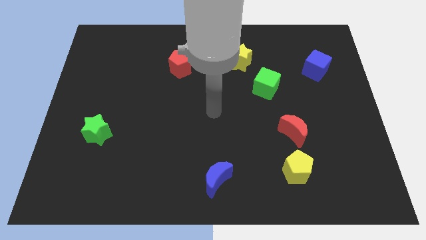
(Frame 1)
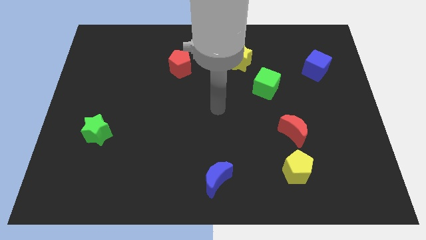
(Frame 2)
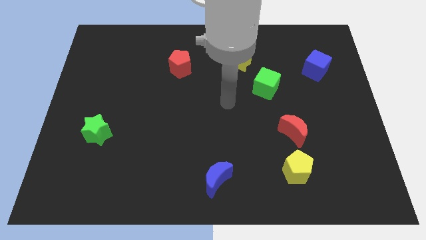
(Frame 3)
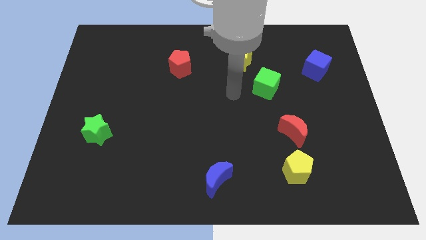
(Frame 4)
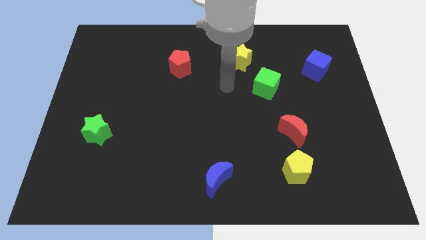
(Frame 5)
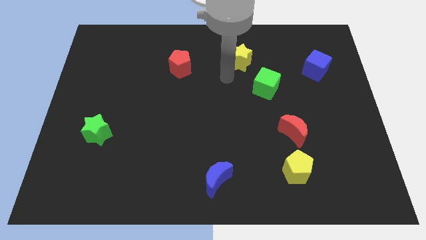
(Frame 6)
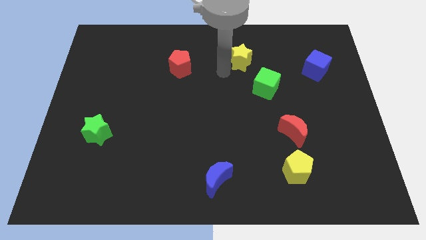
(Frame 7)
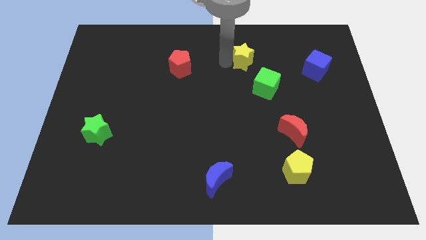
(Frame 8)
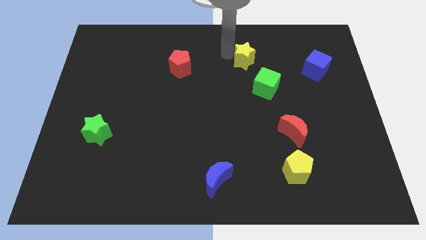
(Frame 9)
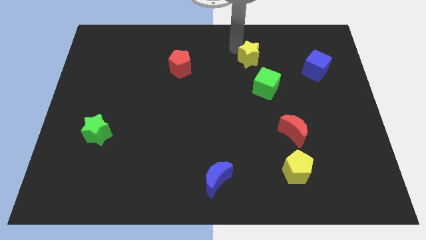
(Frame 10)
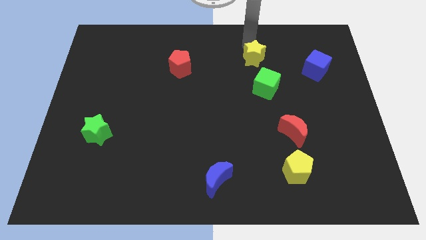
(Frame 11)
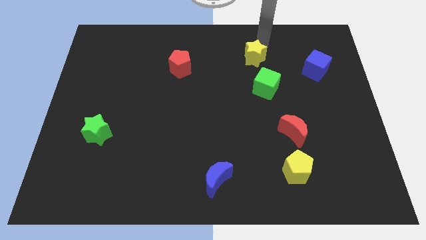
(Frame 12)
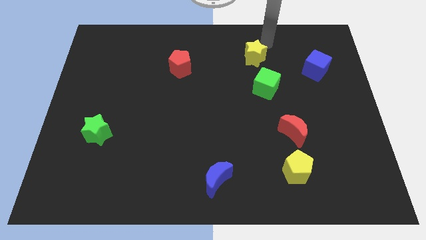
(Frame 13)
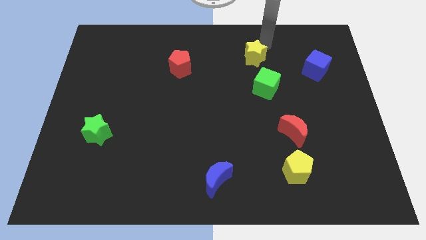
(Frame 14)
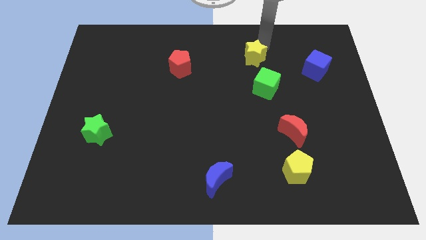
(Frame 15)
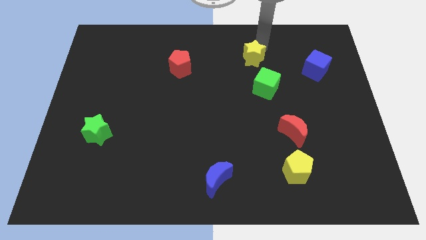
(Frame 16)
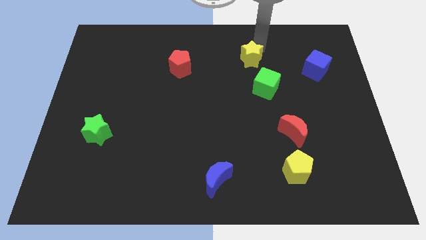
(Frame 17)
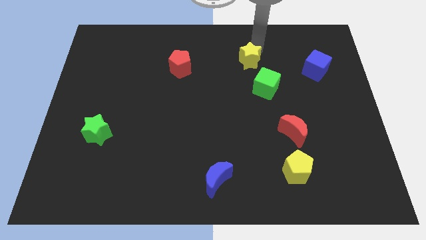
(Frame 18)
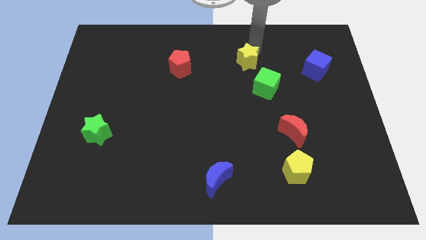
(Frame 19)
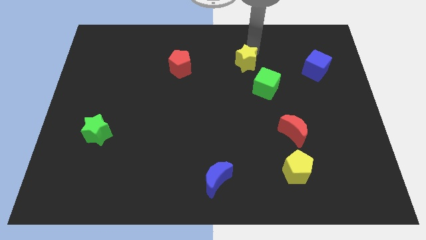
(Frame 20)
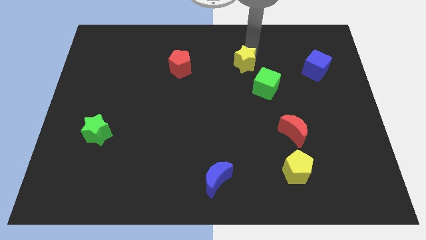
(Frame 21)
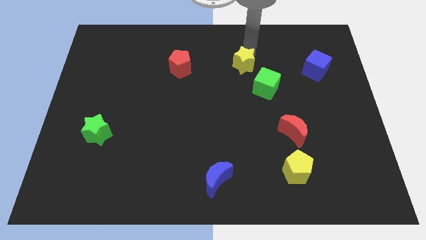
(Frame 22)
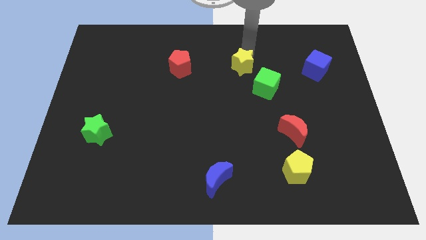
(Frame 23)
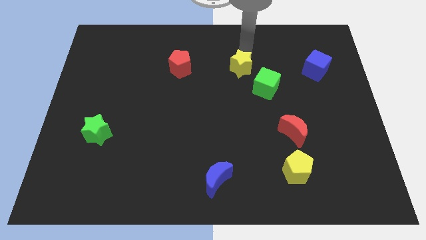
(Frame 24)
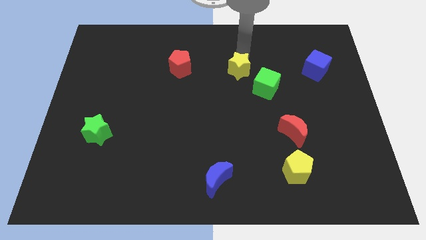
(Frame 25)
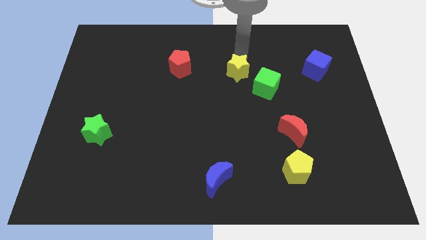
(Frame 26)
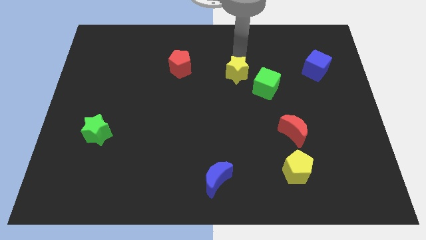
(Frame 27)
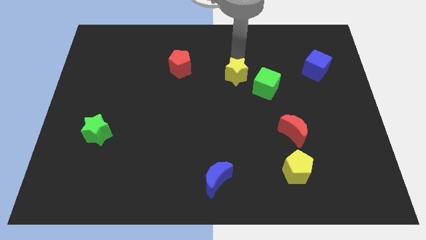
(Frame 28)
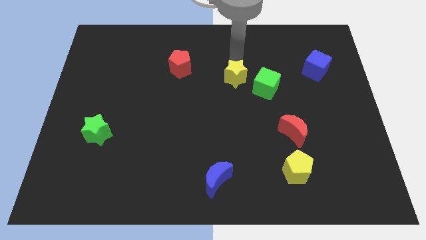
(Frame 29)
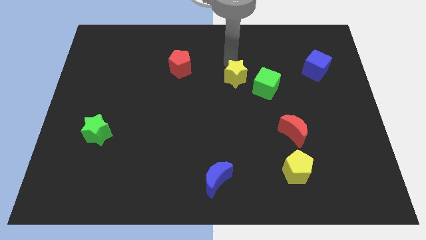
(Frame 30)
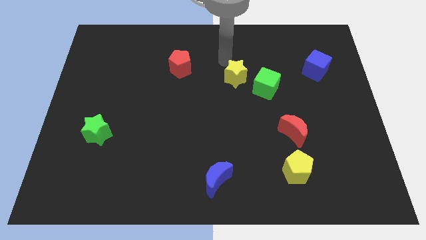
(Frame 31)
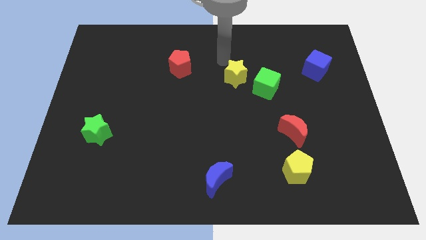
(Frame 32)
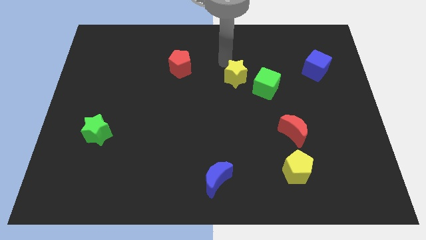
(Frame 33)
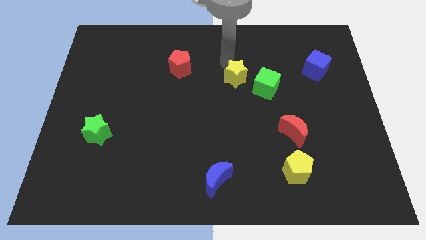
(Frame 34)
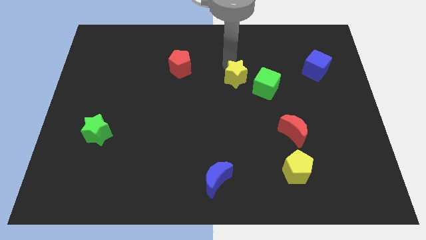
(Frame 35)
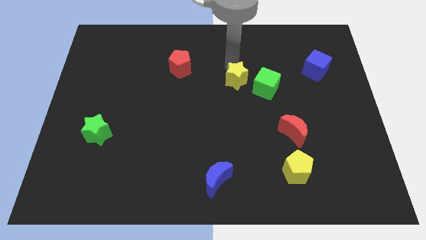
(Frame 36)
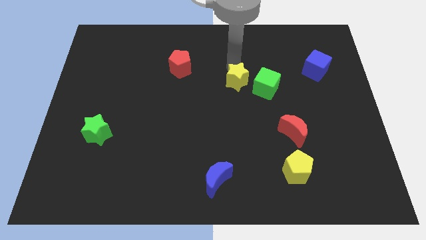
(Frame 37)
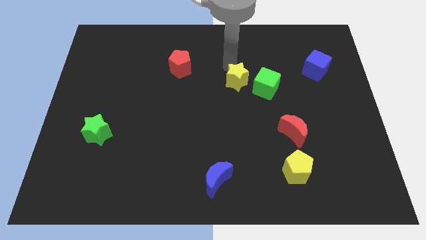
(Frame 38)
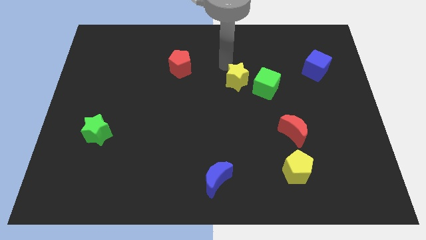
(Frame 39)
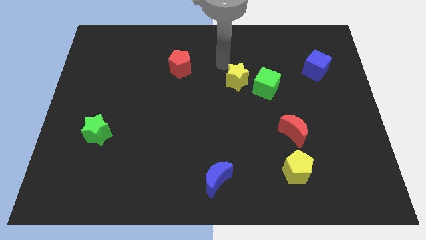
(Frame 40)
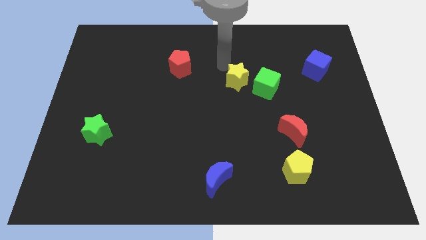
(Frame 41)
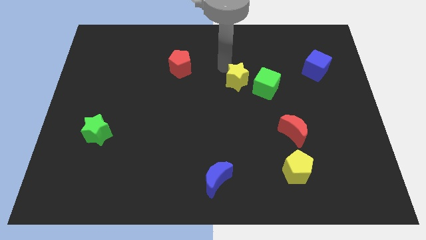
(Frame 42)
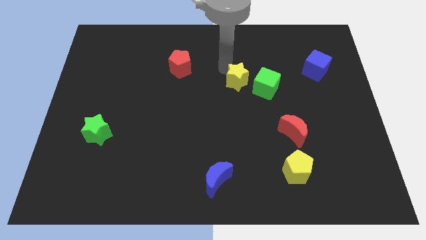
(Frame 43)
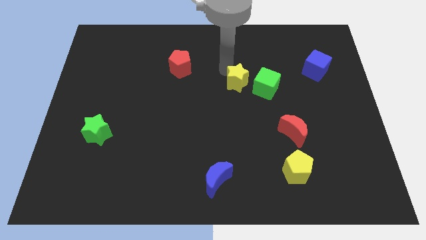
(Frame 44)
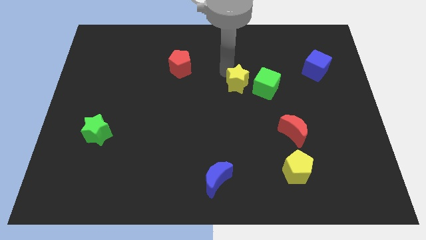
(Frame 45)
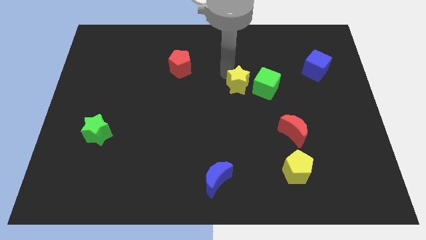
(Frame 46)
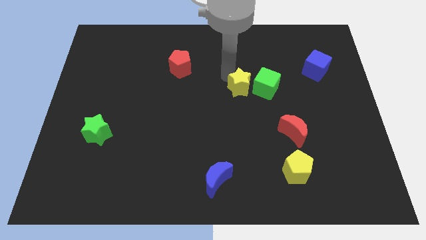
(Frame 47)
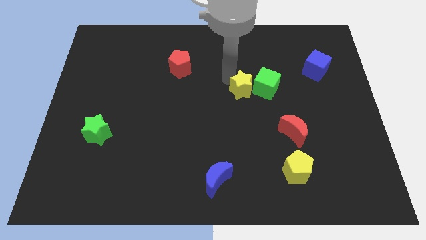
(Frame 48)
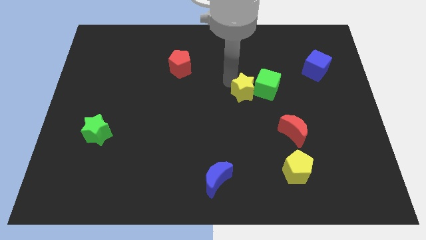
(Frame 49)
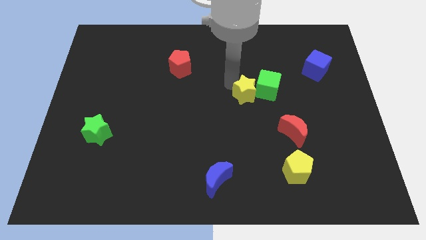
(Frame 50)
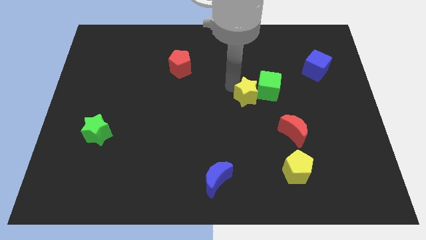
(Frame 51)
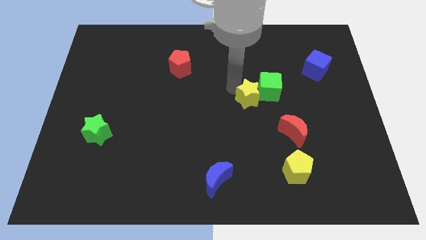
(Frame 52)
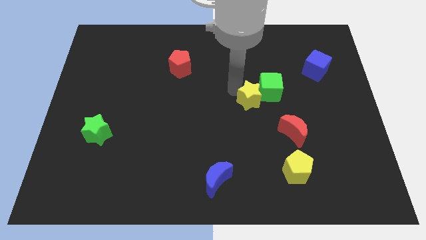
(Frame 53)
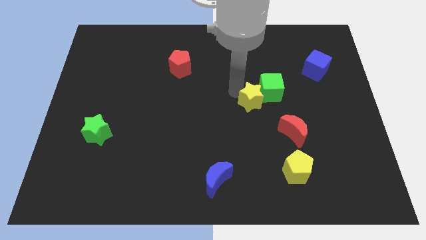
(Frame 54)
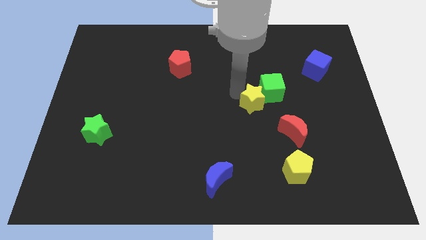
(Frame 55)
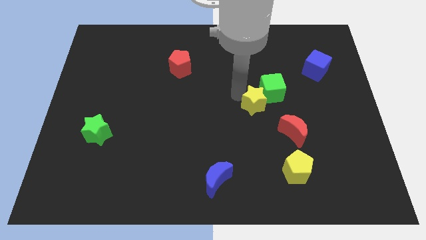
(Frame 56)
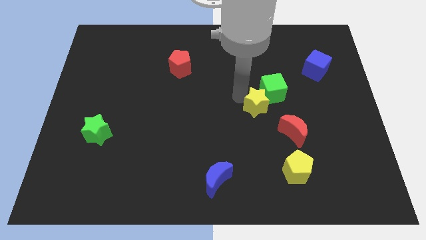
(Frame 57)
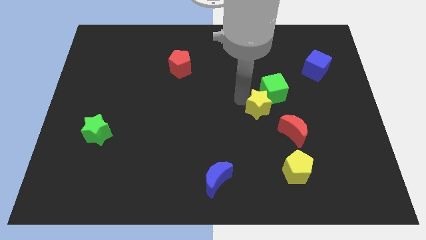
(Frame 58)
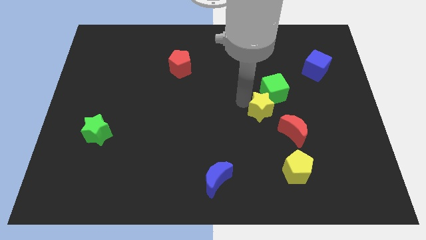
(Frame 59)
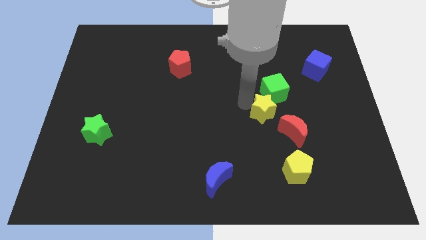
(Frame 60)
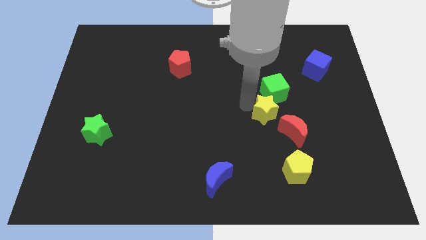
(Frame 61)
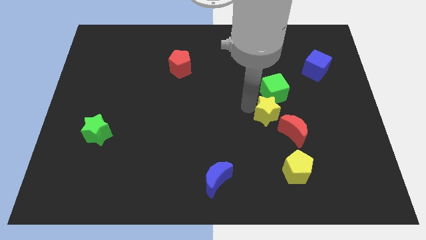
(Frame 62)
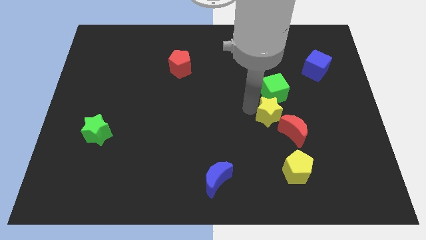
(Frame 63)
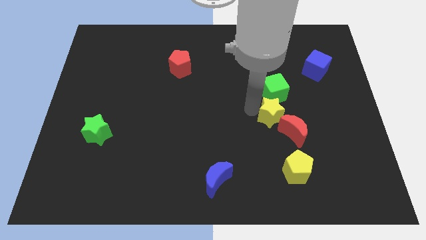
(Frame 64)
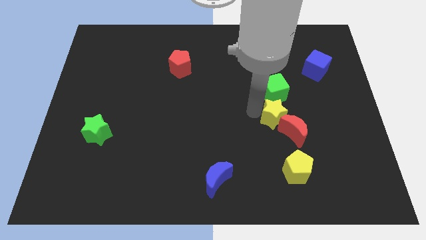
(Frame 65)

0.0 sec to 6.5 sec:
put the yellow star towards the red moon

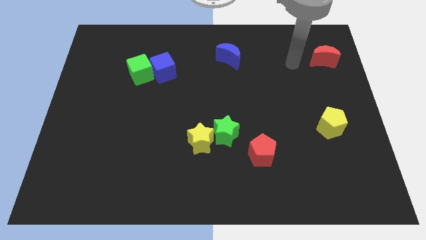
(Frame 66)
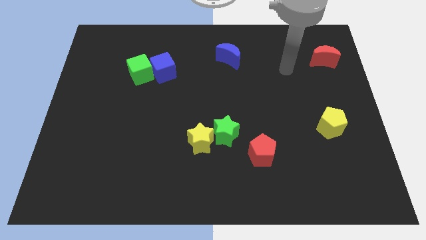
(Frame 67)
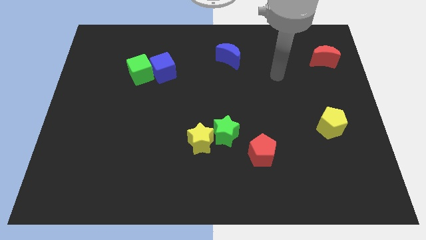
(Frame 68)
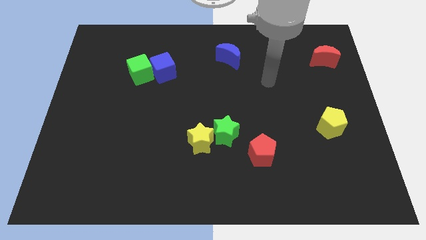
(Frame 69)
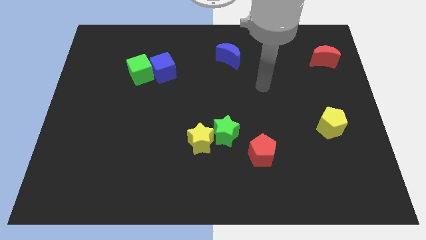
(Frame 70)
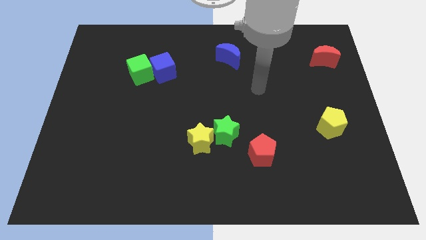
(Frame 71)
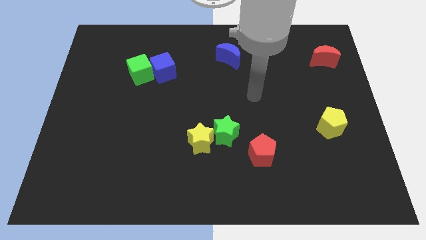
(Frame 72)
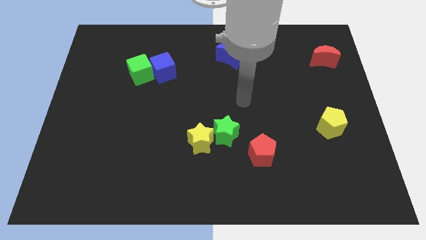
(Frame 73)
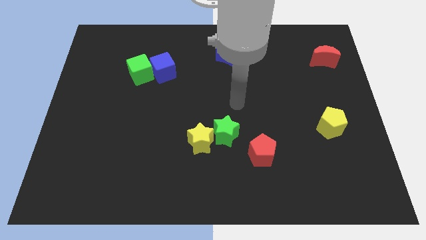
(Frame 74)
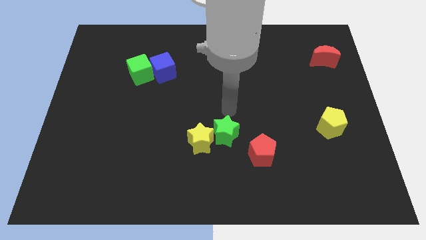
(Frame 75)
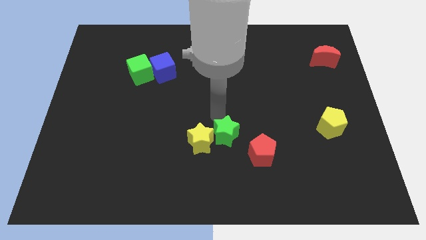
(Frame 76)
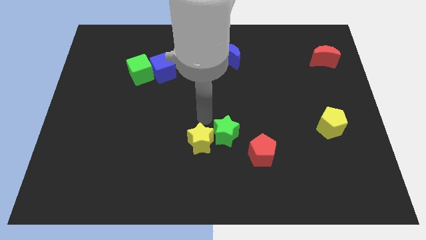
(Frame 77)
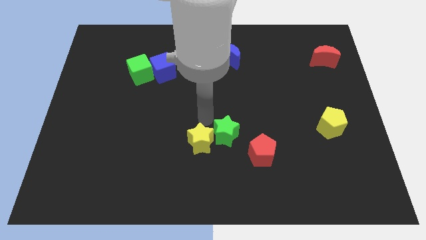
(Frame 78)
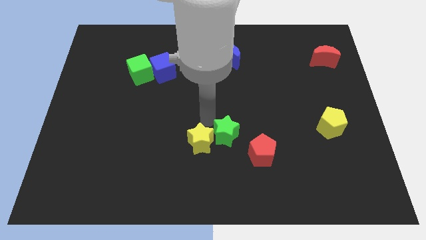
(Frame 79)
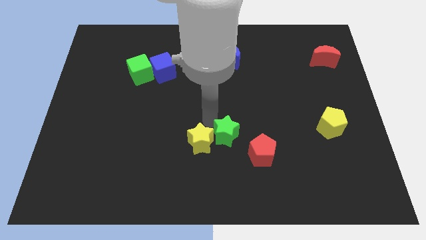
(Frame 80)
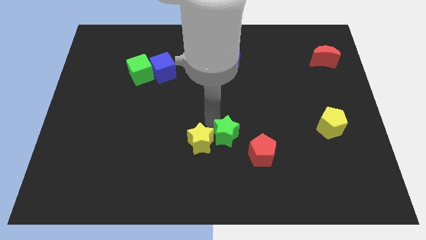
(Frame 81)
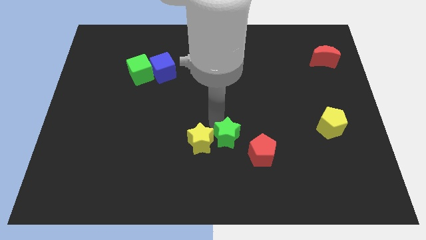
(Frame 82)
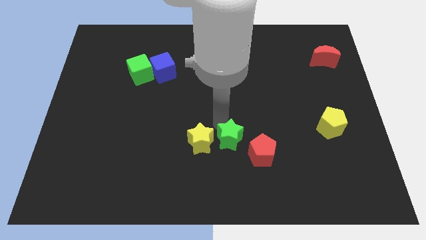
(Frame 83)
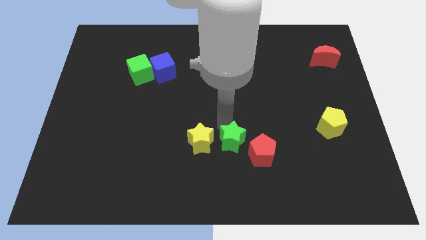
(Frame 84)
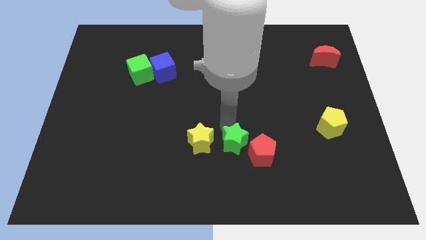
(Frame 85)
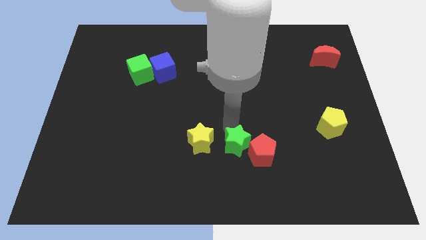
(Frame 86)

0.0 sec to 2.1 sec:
move the green star to the red pentagon
